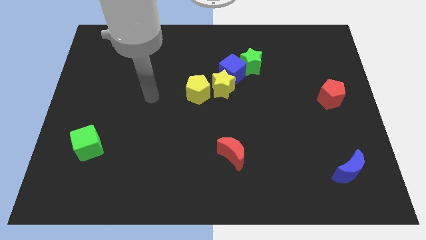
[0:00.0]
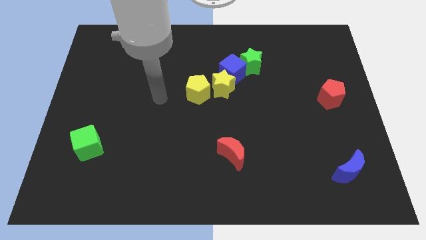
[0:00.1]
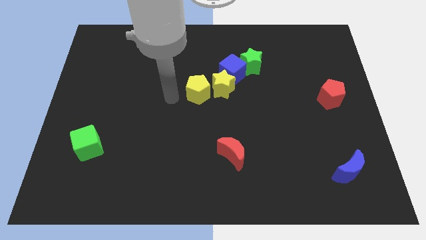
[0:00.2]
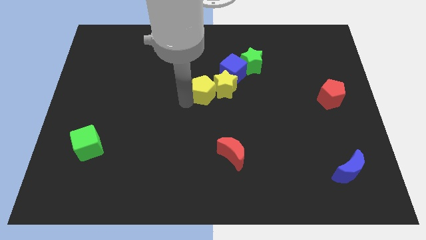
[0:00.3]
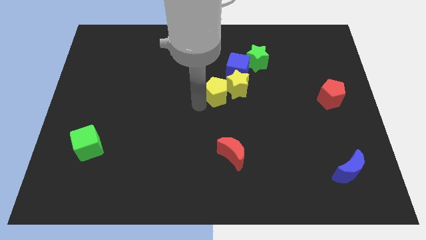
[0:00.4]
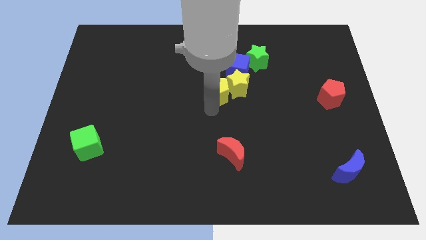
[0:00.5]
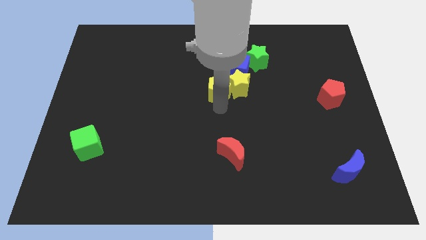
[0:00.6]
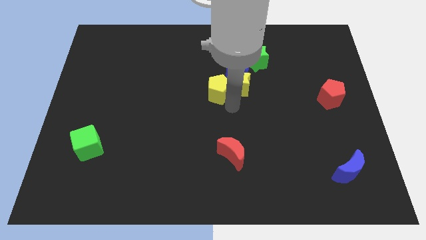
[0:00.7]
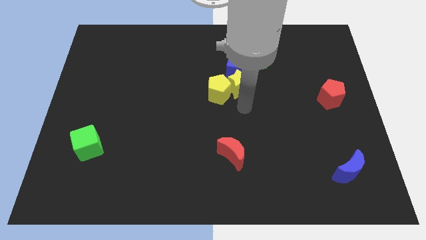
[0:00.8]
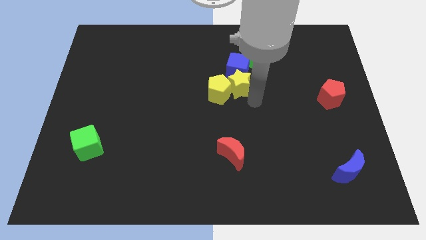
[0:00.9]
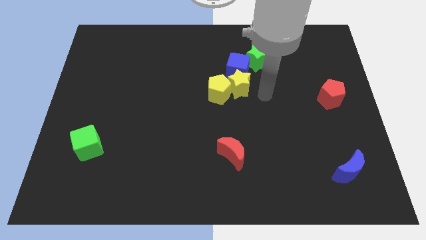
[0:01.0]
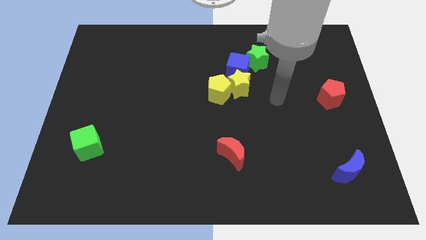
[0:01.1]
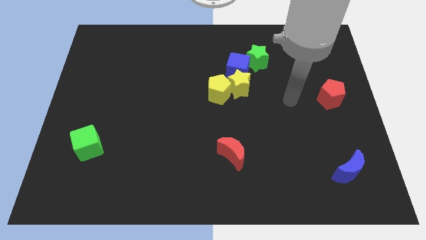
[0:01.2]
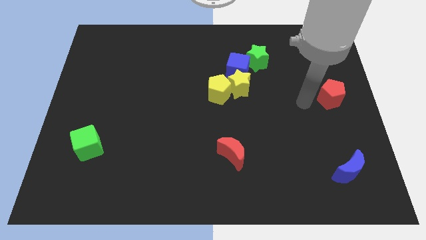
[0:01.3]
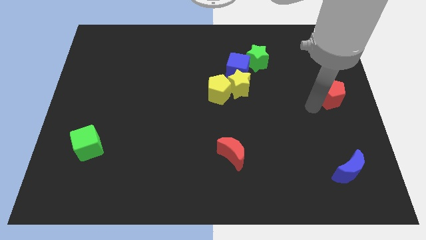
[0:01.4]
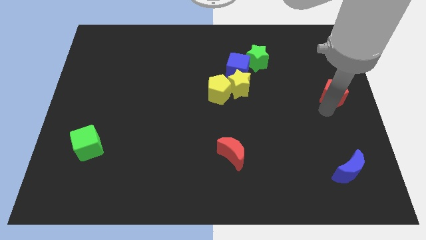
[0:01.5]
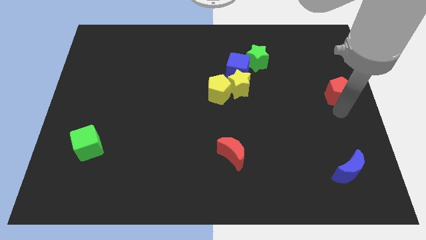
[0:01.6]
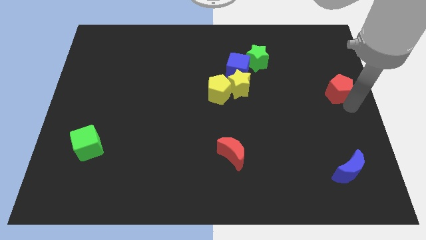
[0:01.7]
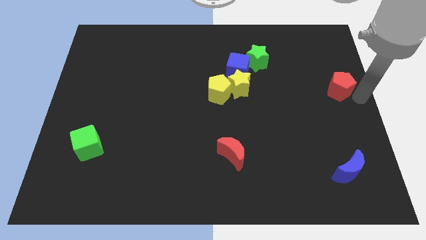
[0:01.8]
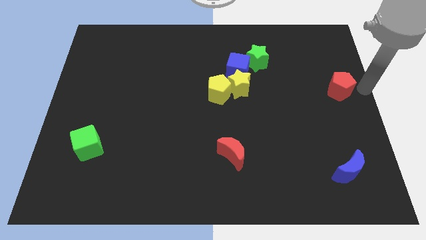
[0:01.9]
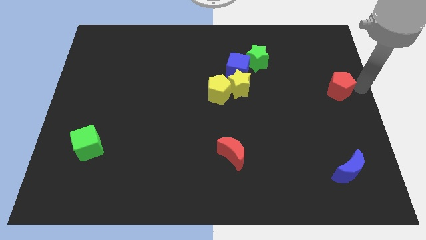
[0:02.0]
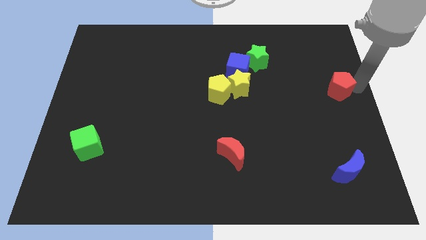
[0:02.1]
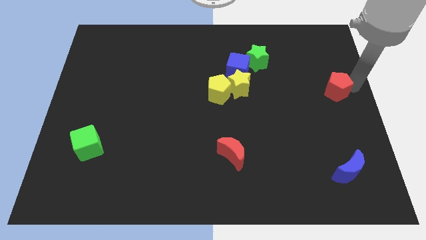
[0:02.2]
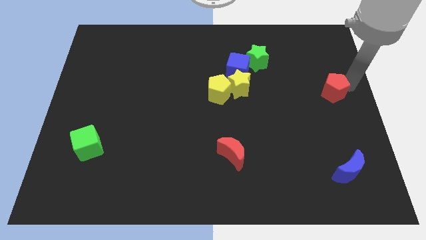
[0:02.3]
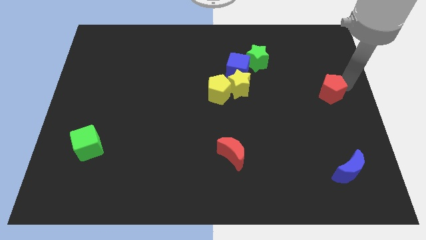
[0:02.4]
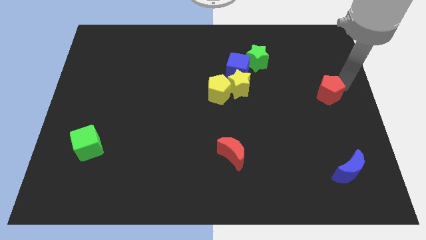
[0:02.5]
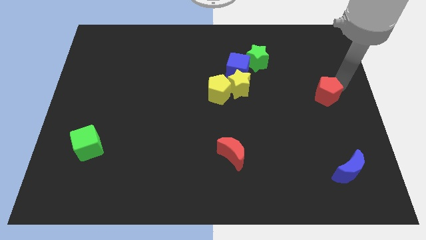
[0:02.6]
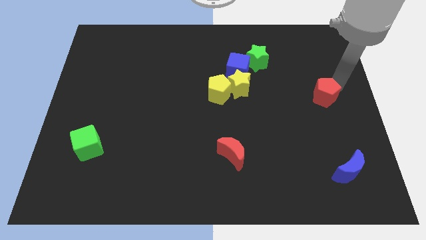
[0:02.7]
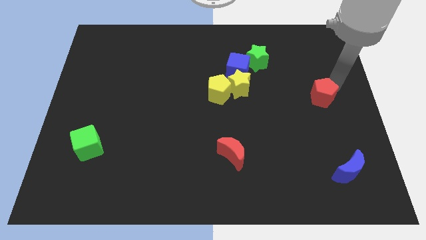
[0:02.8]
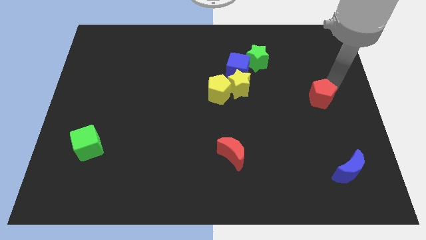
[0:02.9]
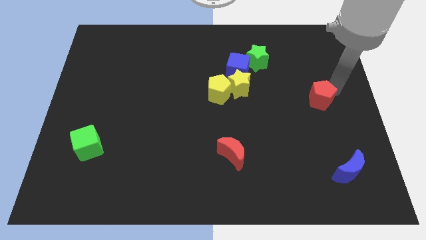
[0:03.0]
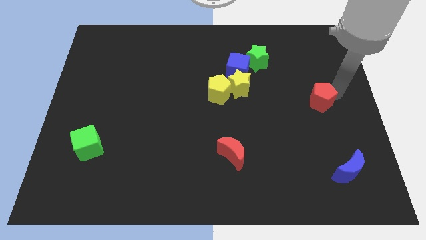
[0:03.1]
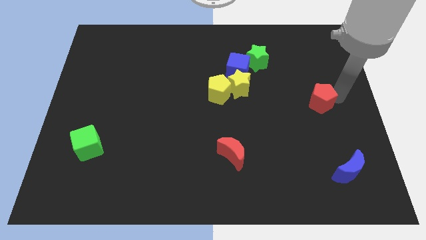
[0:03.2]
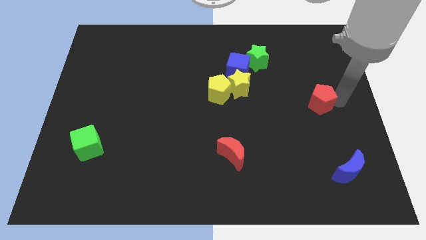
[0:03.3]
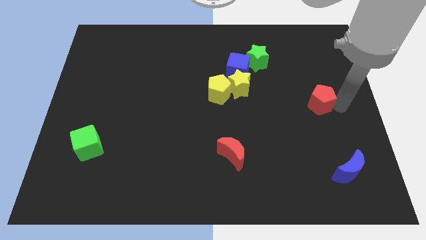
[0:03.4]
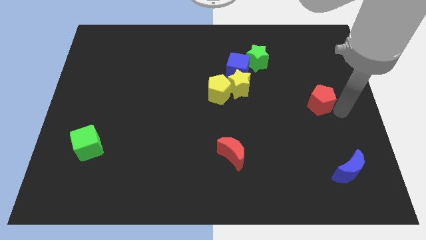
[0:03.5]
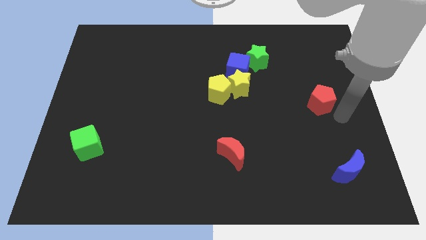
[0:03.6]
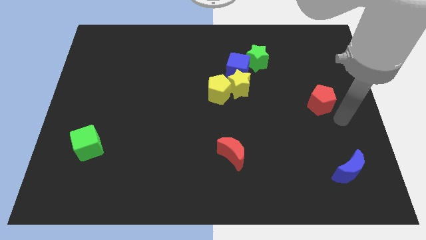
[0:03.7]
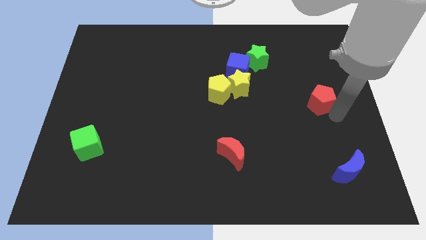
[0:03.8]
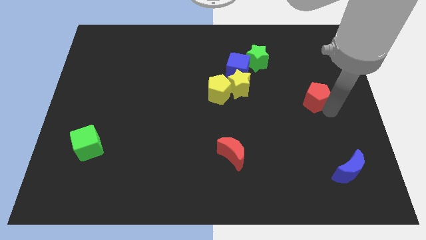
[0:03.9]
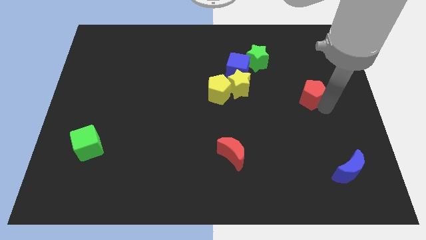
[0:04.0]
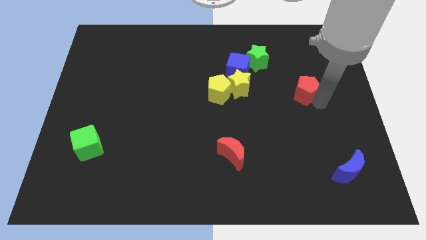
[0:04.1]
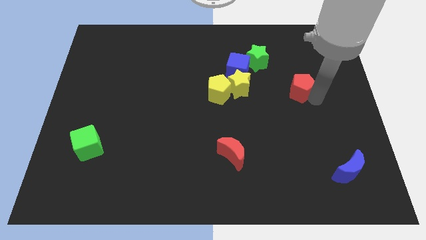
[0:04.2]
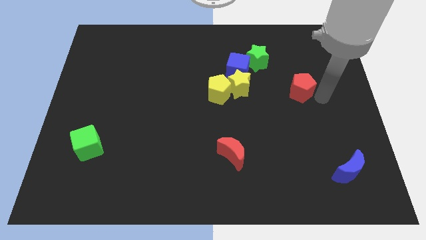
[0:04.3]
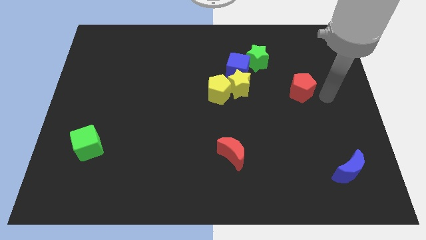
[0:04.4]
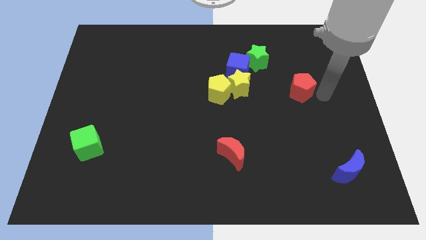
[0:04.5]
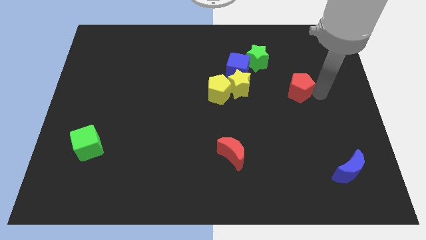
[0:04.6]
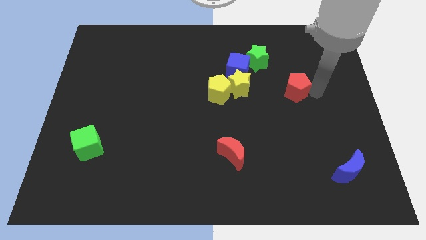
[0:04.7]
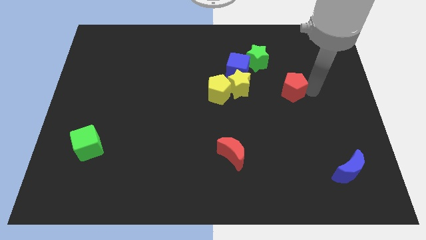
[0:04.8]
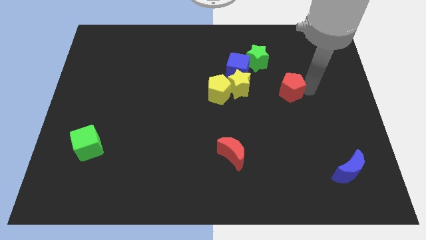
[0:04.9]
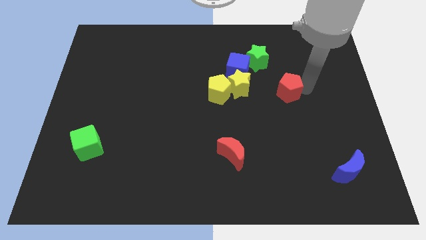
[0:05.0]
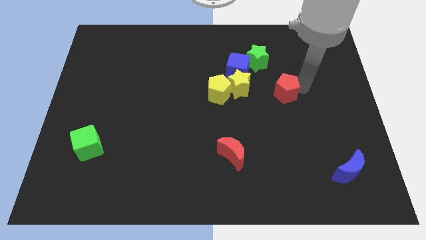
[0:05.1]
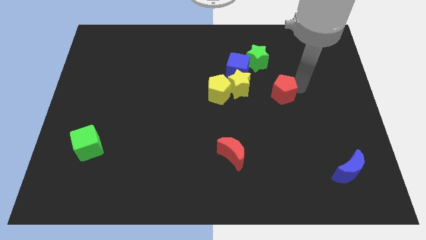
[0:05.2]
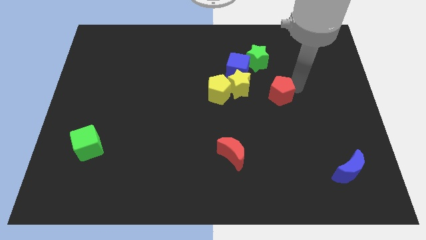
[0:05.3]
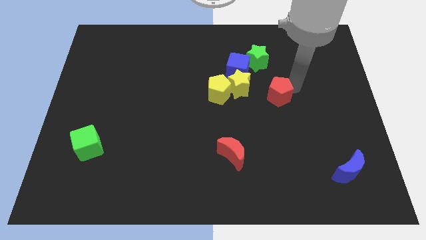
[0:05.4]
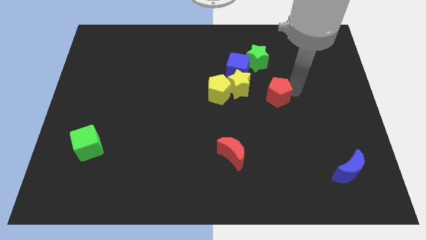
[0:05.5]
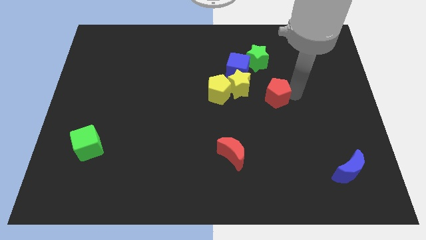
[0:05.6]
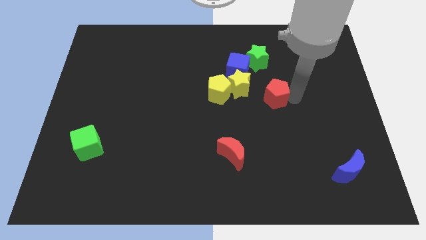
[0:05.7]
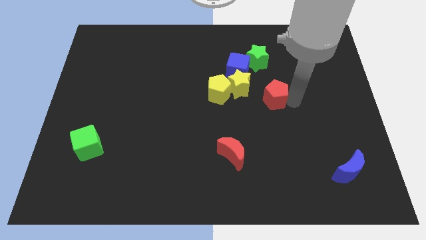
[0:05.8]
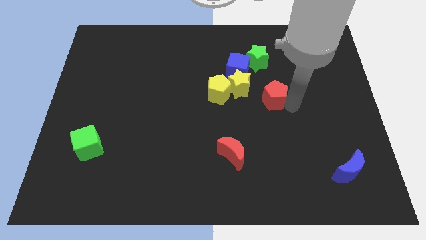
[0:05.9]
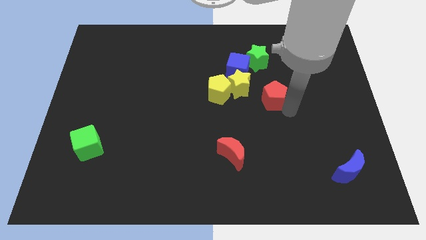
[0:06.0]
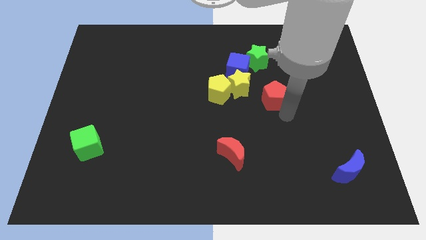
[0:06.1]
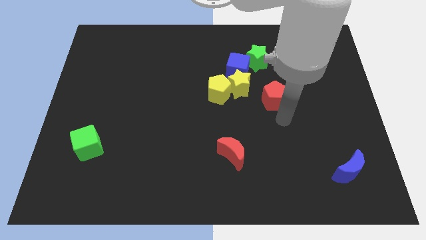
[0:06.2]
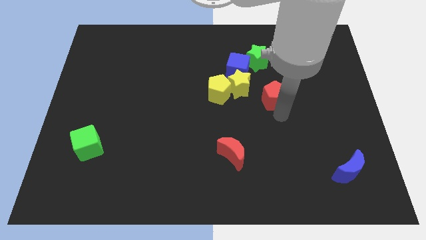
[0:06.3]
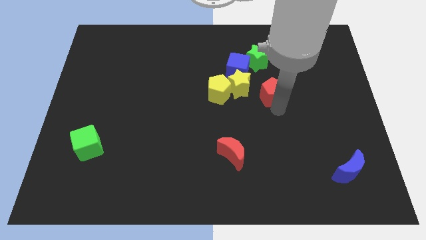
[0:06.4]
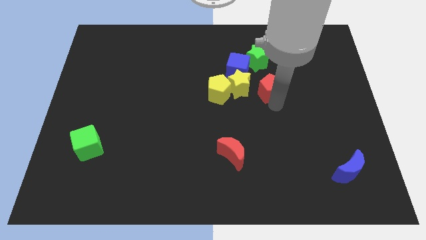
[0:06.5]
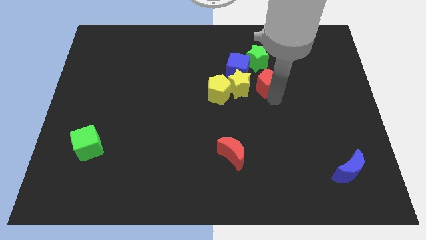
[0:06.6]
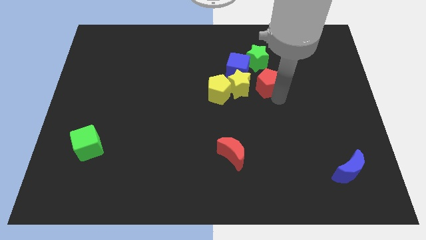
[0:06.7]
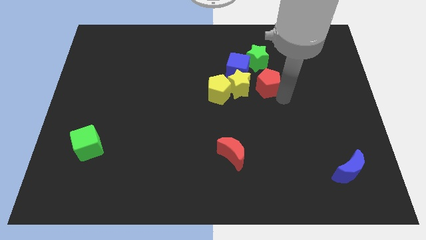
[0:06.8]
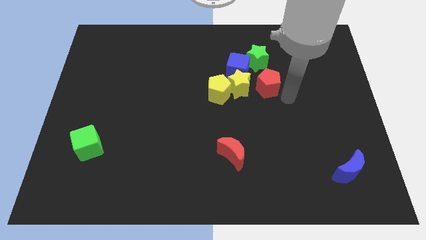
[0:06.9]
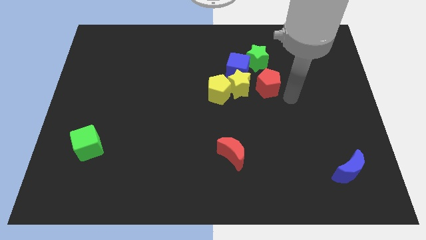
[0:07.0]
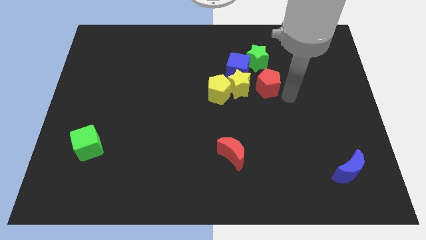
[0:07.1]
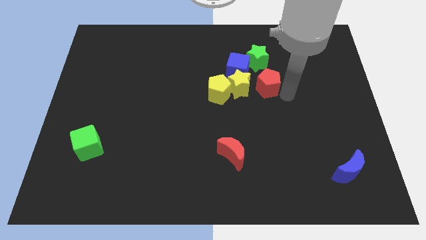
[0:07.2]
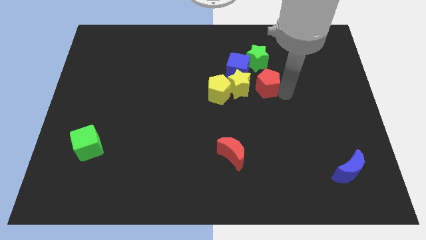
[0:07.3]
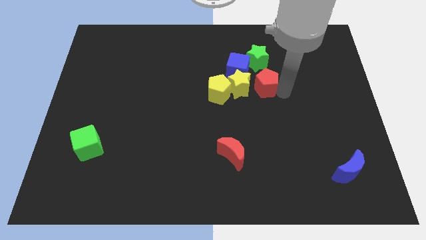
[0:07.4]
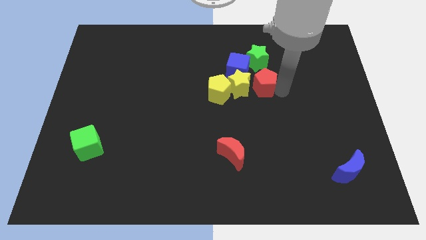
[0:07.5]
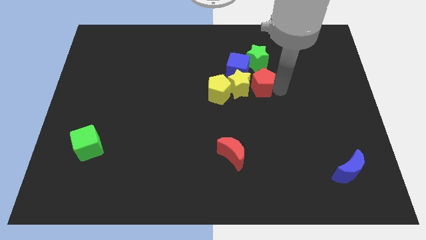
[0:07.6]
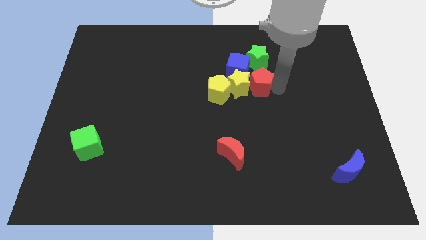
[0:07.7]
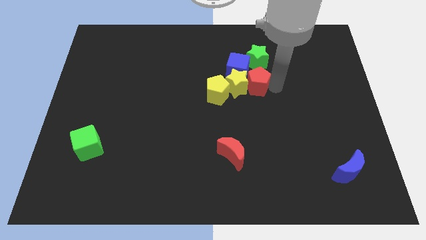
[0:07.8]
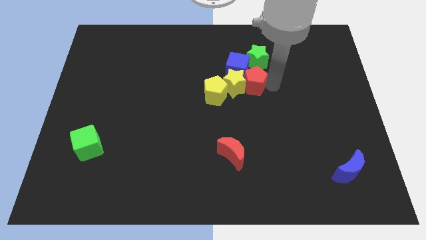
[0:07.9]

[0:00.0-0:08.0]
slide the red pentagon to the blue cube

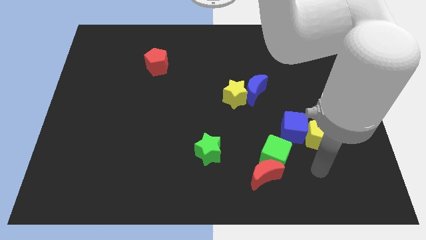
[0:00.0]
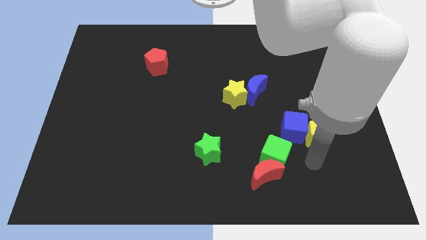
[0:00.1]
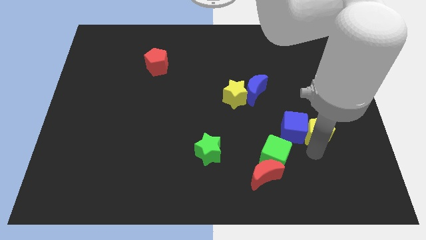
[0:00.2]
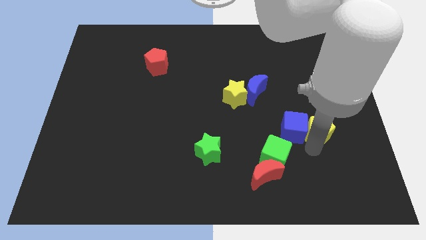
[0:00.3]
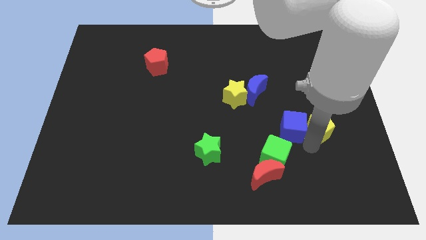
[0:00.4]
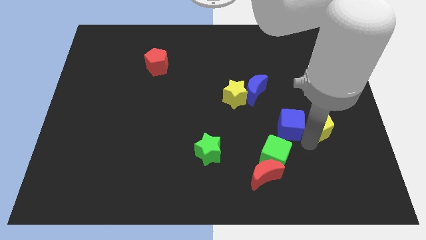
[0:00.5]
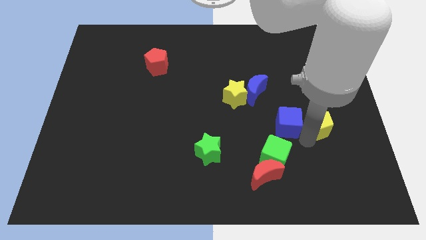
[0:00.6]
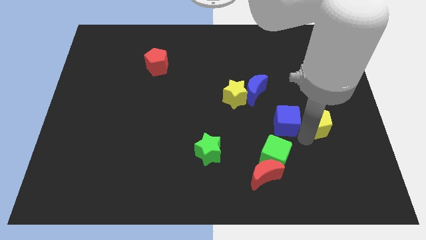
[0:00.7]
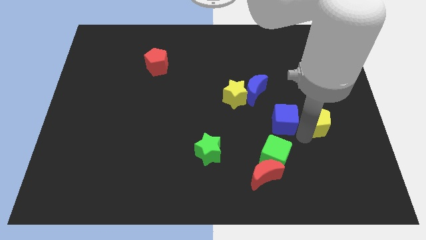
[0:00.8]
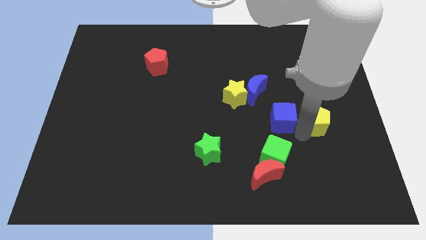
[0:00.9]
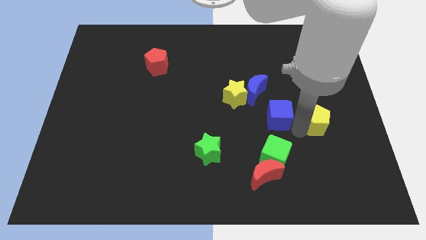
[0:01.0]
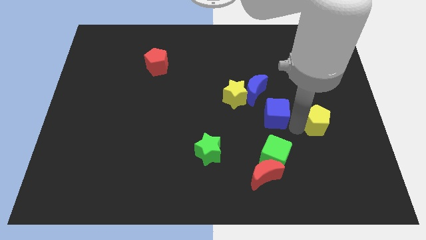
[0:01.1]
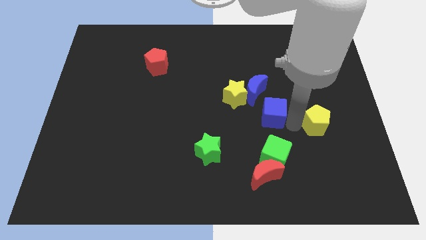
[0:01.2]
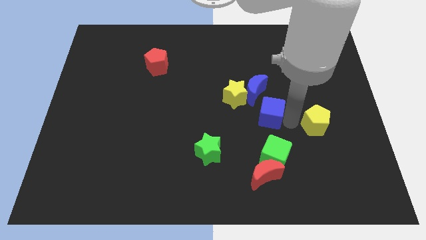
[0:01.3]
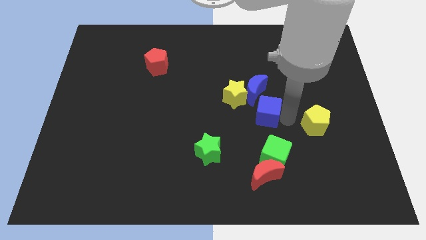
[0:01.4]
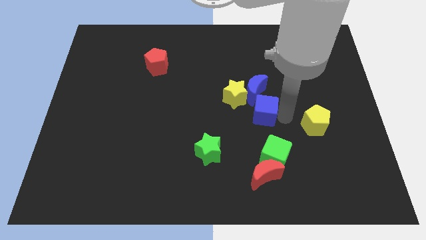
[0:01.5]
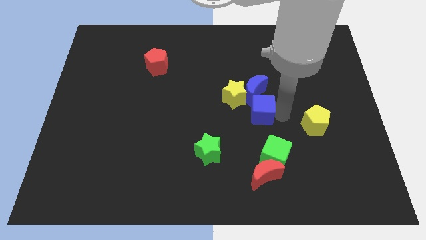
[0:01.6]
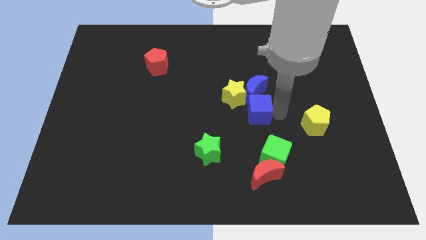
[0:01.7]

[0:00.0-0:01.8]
push the blue cube close to the blue moon
